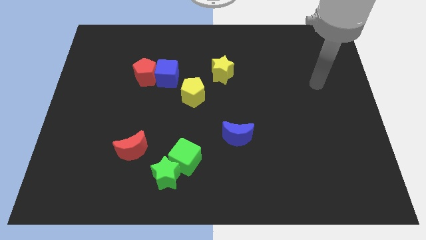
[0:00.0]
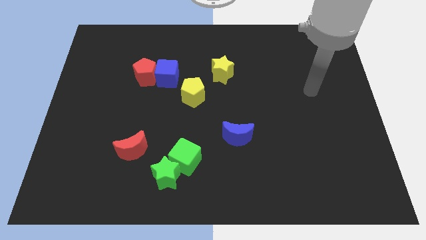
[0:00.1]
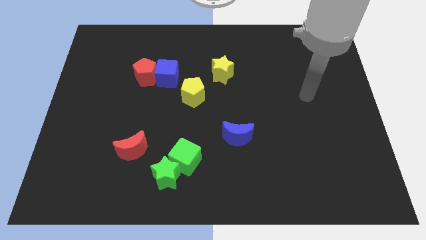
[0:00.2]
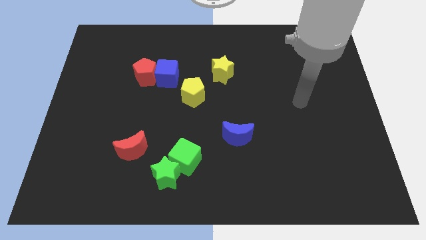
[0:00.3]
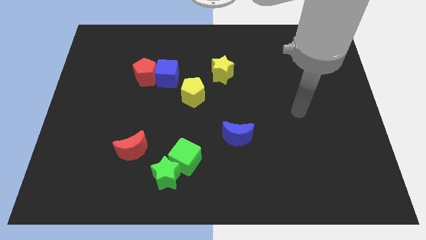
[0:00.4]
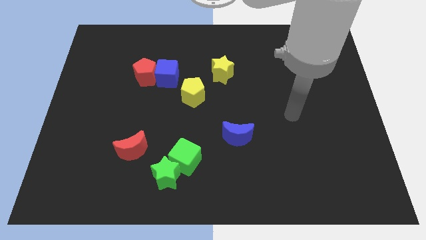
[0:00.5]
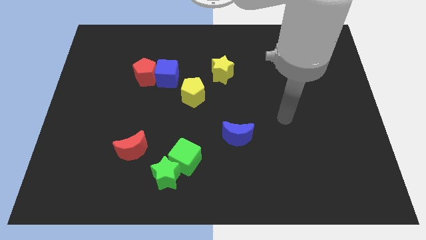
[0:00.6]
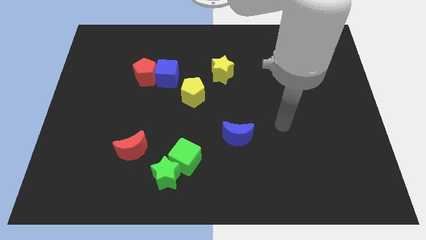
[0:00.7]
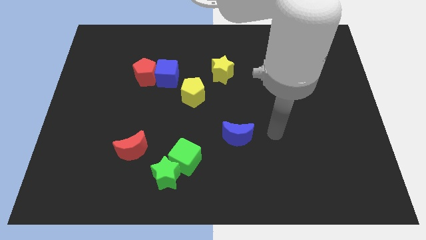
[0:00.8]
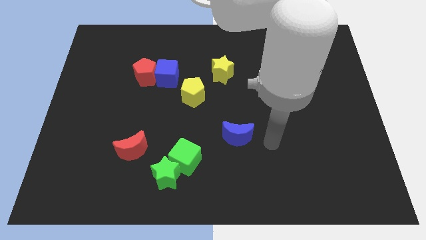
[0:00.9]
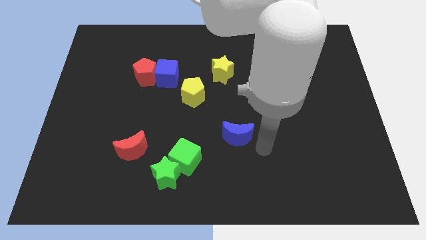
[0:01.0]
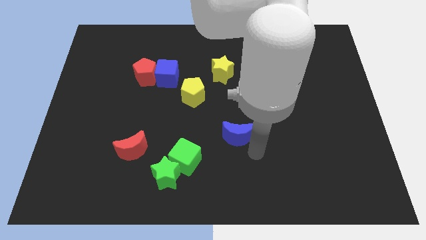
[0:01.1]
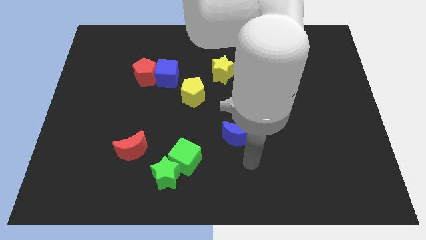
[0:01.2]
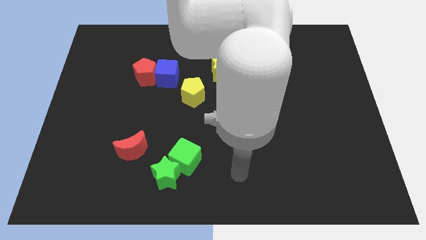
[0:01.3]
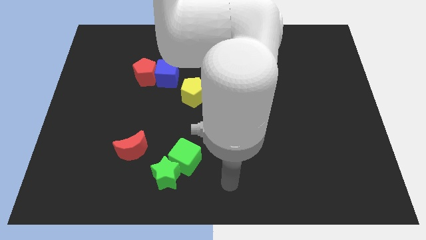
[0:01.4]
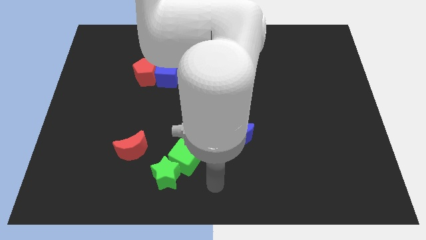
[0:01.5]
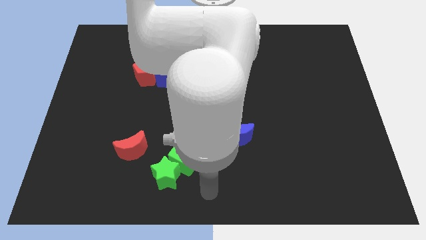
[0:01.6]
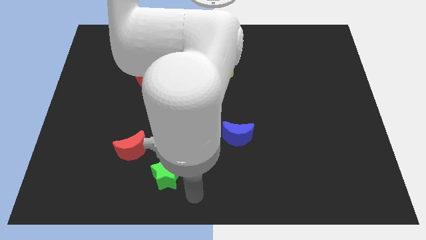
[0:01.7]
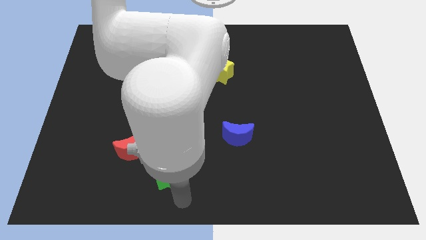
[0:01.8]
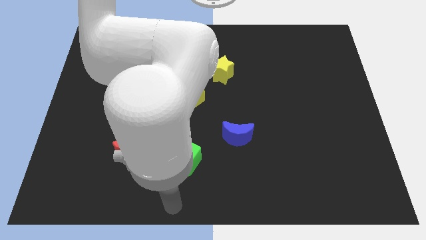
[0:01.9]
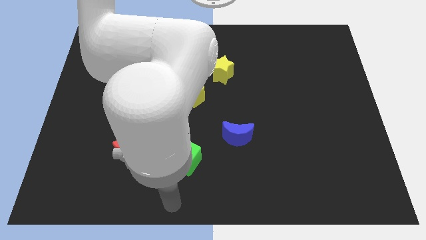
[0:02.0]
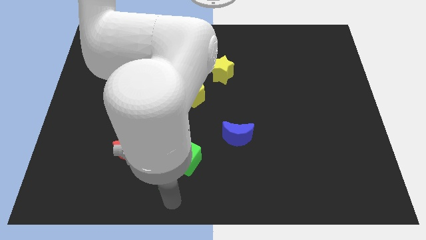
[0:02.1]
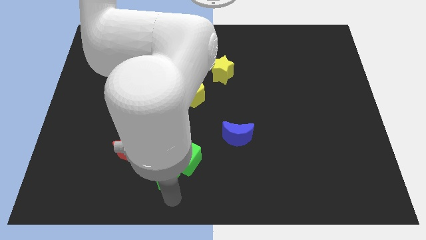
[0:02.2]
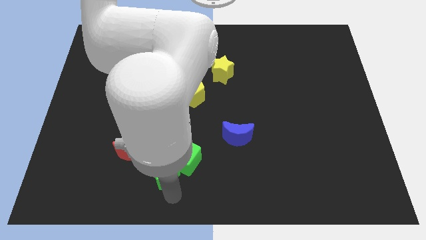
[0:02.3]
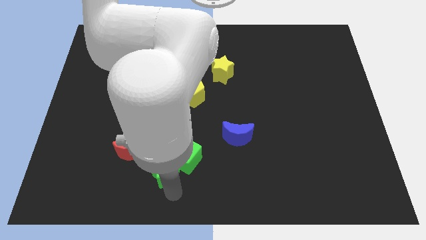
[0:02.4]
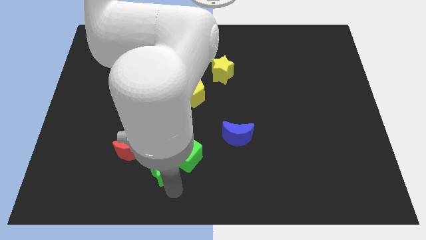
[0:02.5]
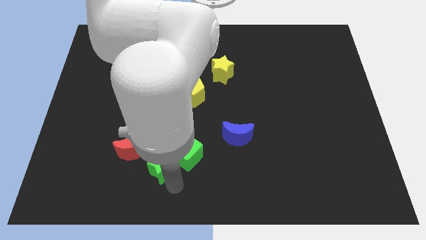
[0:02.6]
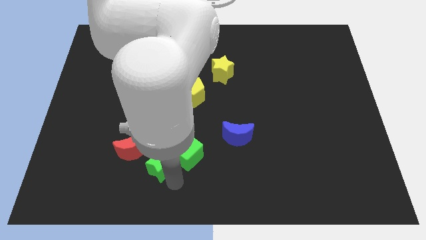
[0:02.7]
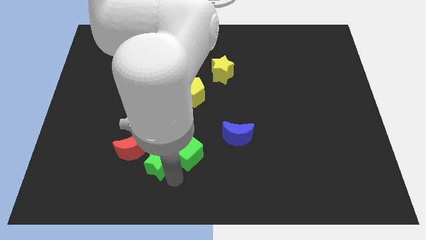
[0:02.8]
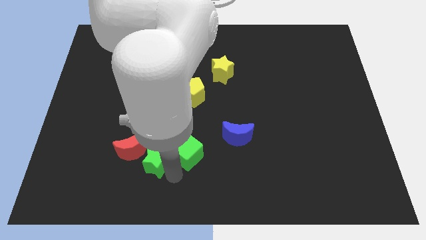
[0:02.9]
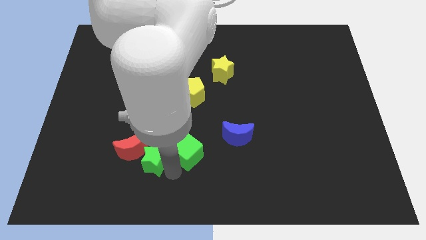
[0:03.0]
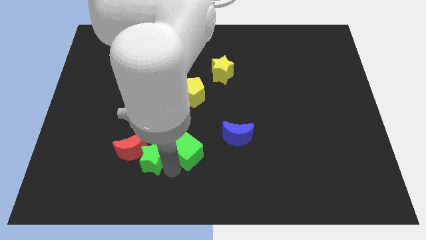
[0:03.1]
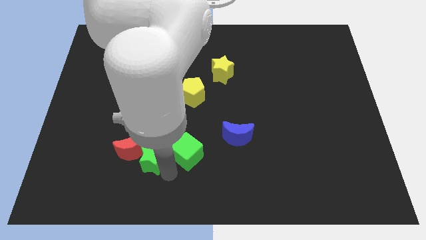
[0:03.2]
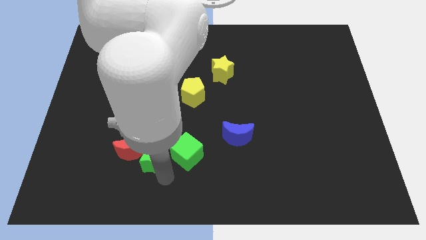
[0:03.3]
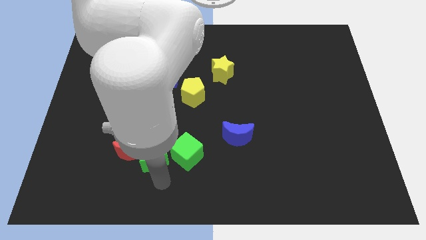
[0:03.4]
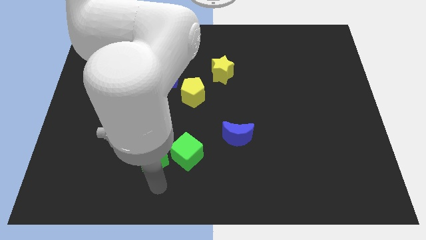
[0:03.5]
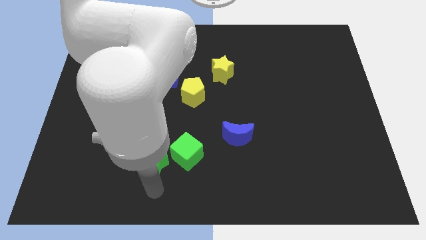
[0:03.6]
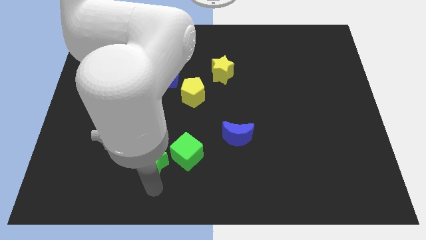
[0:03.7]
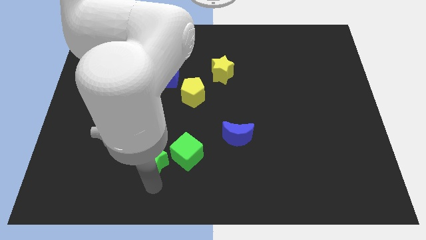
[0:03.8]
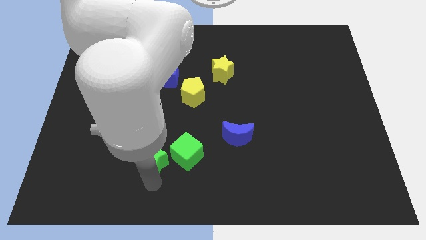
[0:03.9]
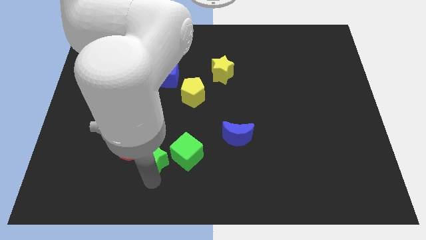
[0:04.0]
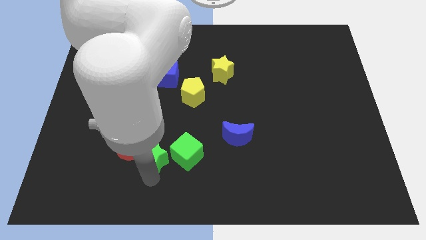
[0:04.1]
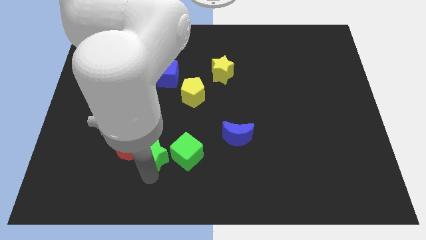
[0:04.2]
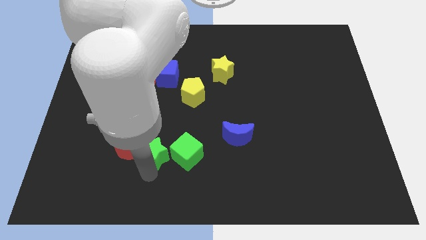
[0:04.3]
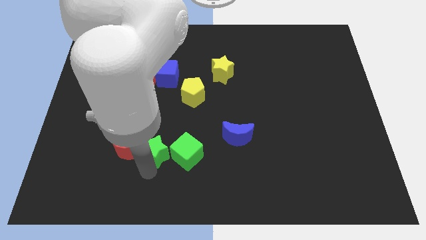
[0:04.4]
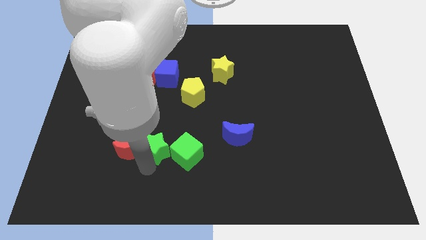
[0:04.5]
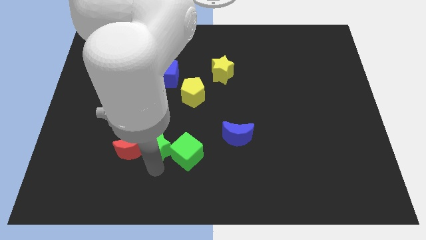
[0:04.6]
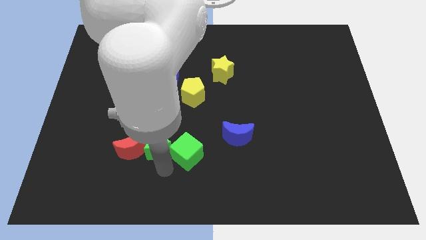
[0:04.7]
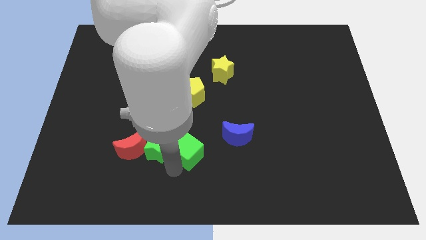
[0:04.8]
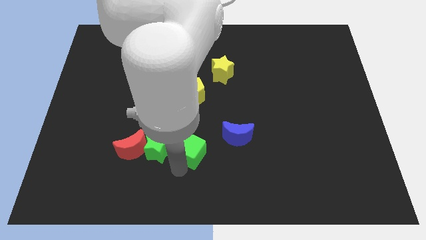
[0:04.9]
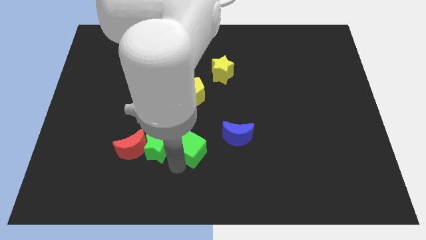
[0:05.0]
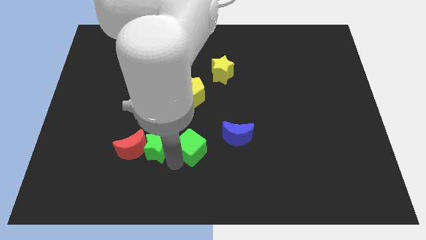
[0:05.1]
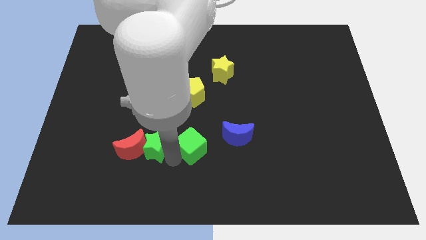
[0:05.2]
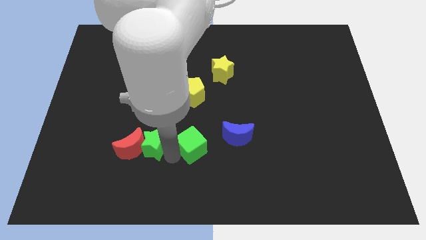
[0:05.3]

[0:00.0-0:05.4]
push the green star upwards and left diagonally a bit

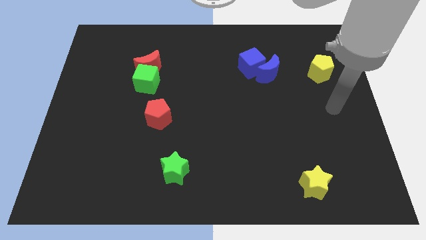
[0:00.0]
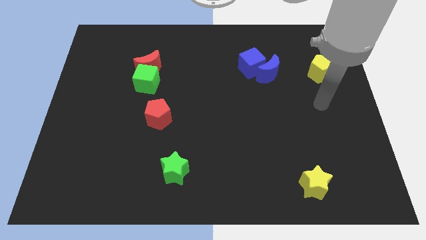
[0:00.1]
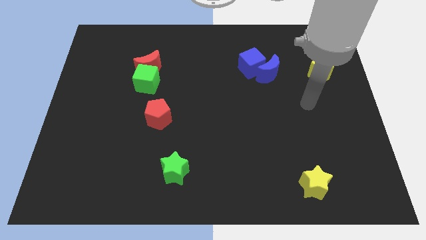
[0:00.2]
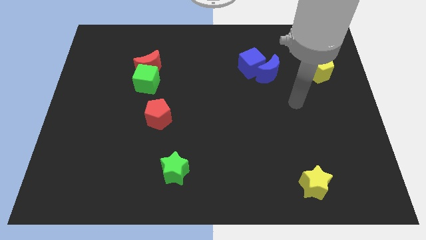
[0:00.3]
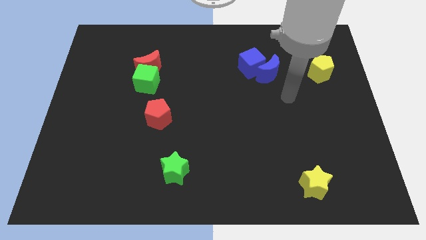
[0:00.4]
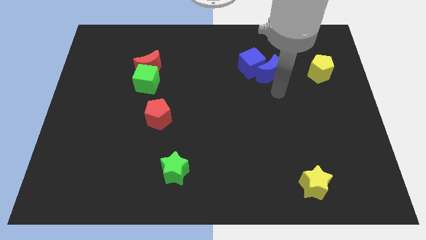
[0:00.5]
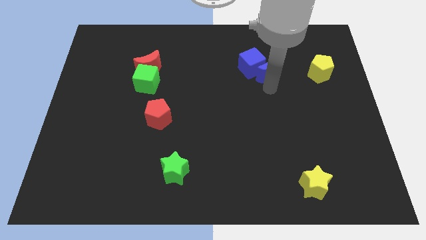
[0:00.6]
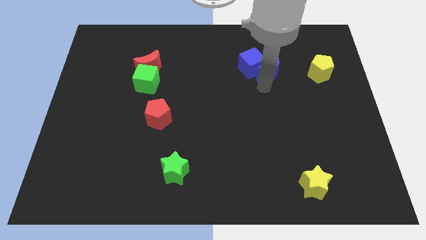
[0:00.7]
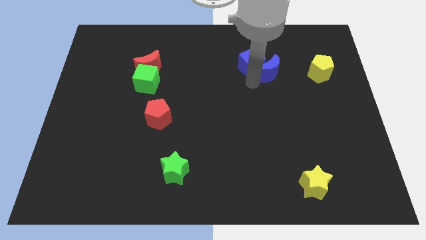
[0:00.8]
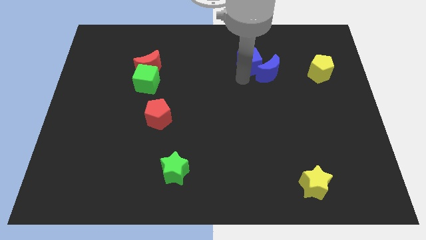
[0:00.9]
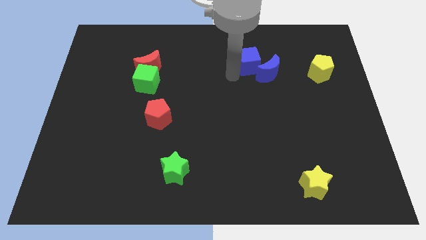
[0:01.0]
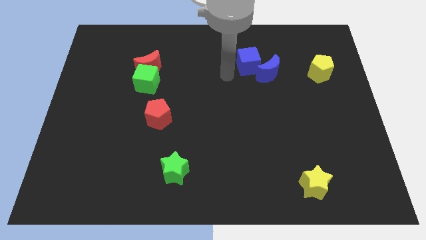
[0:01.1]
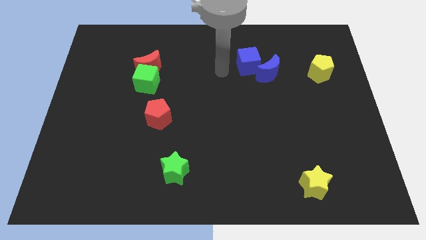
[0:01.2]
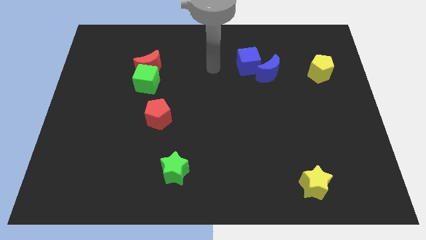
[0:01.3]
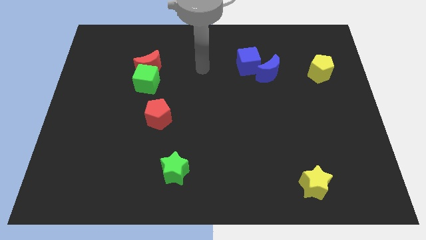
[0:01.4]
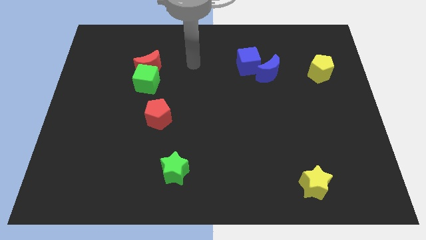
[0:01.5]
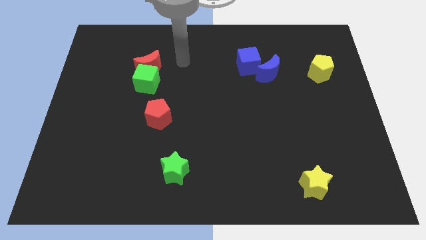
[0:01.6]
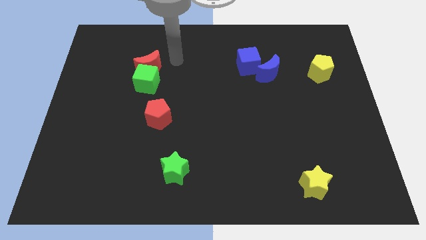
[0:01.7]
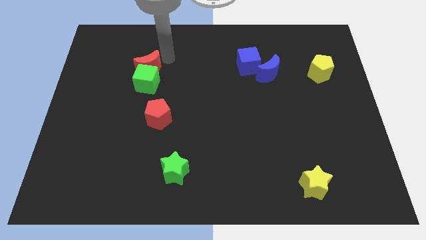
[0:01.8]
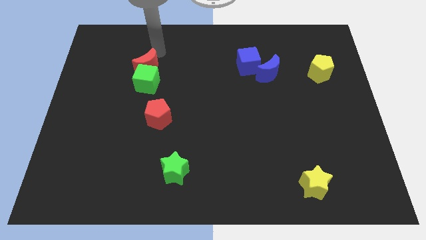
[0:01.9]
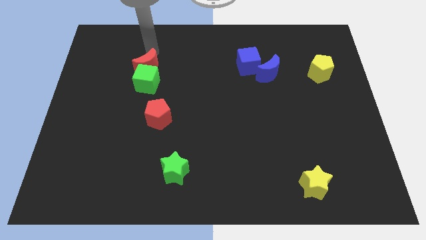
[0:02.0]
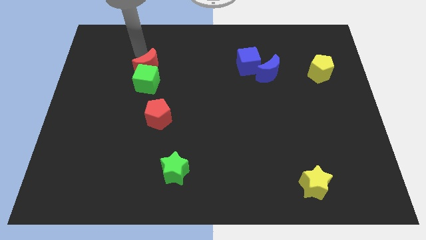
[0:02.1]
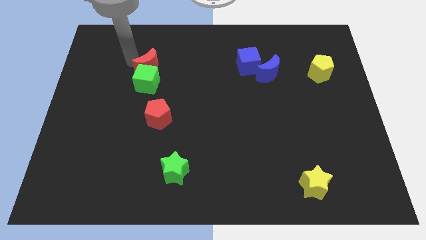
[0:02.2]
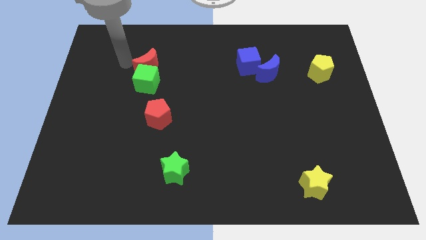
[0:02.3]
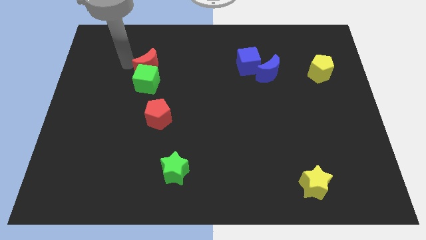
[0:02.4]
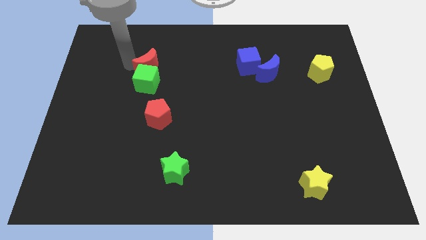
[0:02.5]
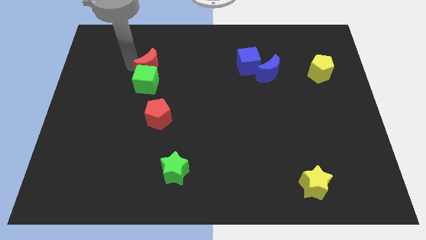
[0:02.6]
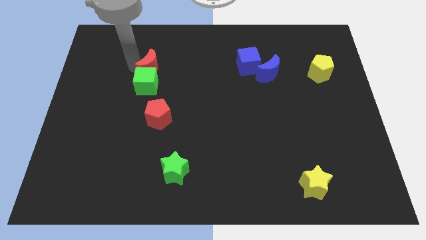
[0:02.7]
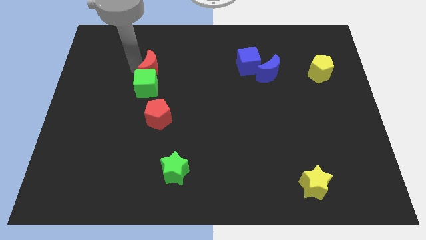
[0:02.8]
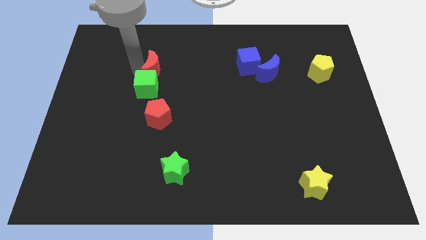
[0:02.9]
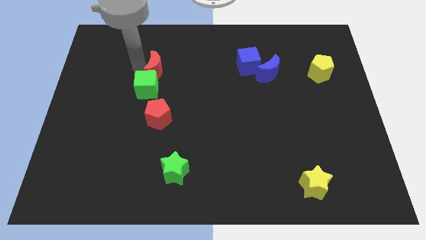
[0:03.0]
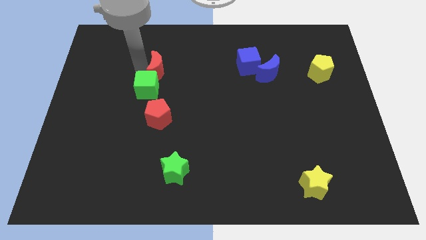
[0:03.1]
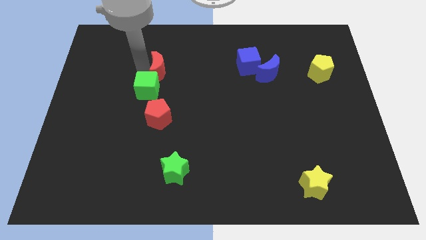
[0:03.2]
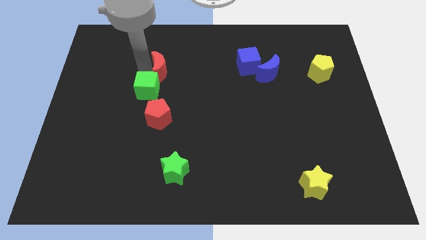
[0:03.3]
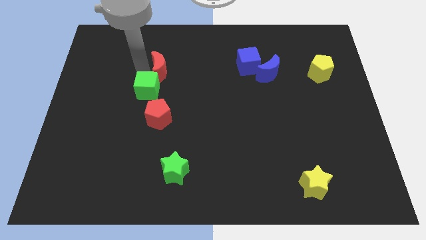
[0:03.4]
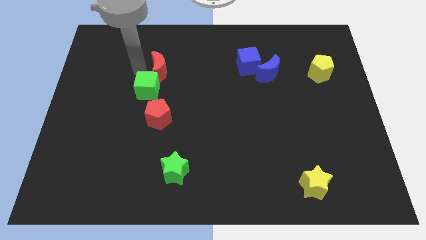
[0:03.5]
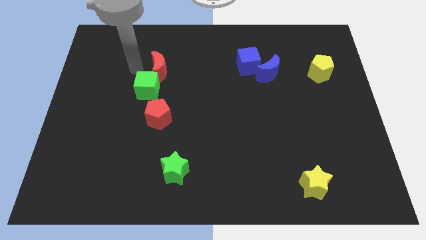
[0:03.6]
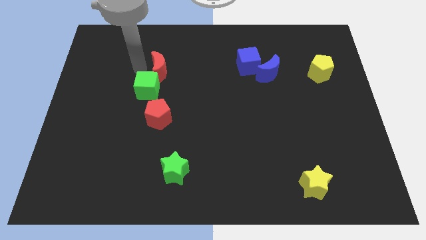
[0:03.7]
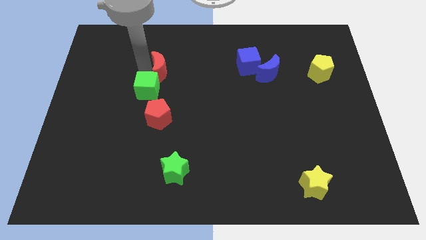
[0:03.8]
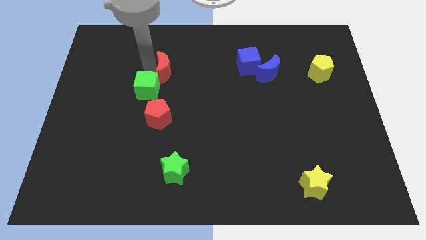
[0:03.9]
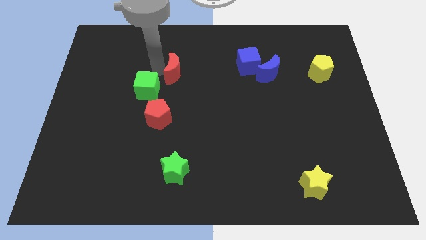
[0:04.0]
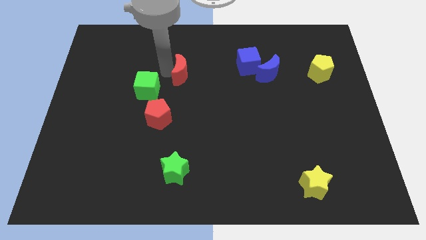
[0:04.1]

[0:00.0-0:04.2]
slightly slide the red moon right
